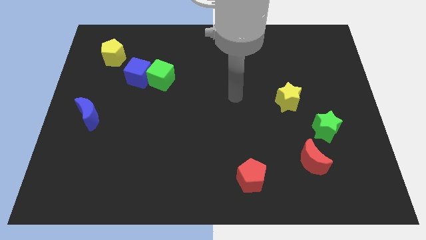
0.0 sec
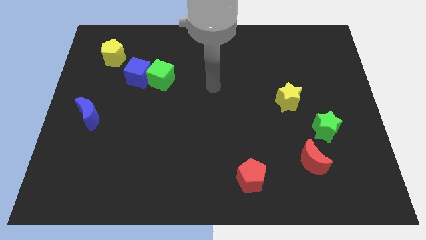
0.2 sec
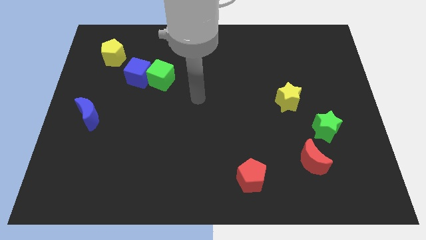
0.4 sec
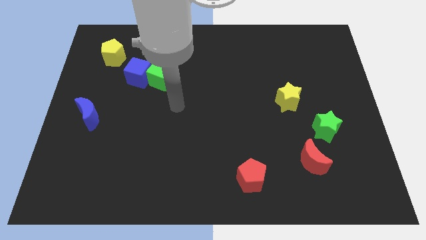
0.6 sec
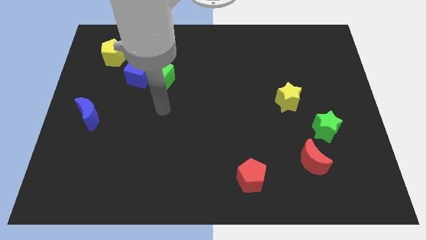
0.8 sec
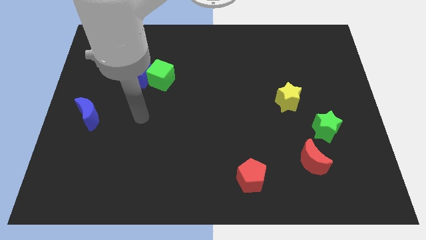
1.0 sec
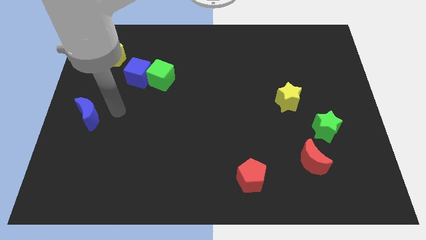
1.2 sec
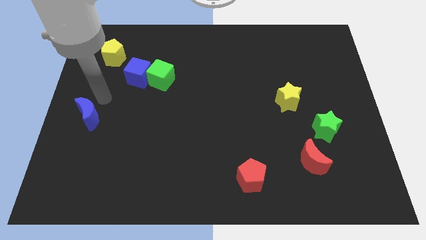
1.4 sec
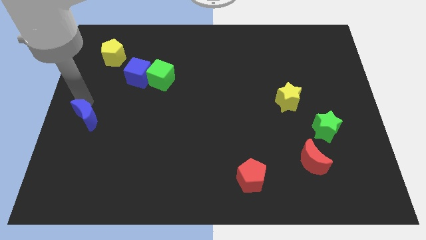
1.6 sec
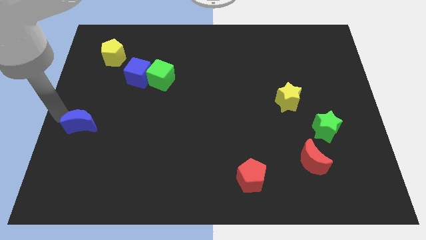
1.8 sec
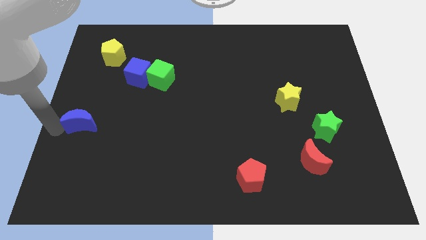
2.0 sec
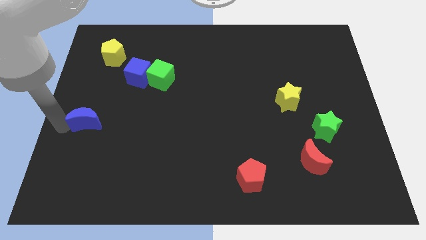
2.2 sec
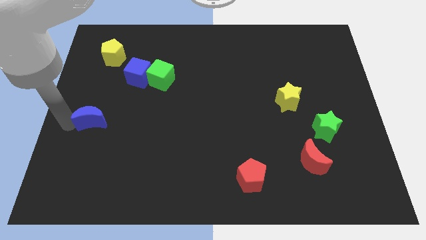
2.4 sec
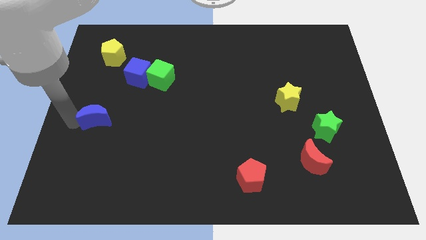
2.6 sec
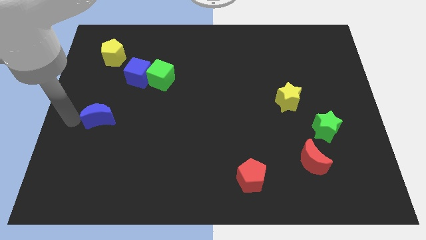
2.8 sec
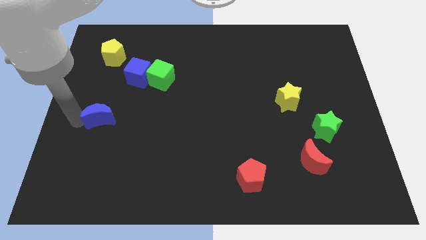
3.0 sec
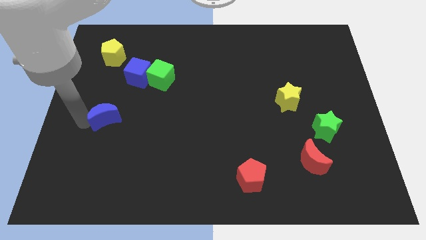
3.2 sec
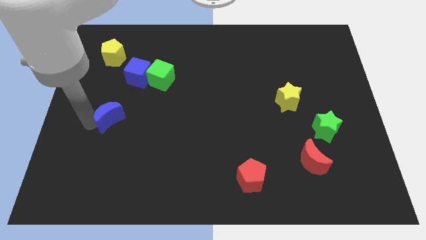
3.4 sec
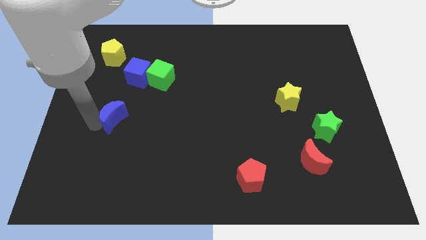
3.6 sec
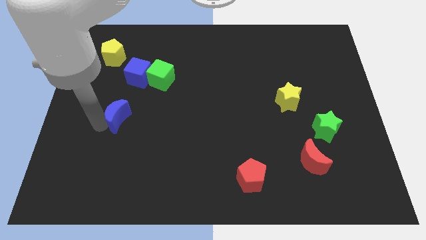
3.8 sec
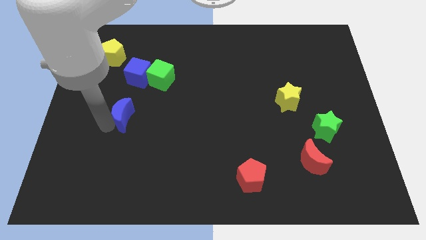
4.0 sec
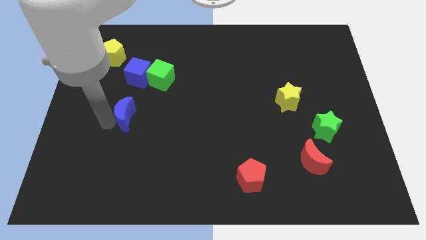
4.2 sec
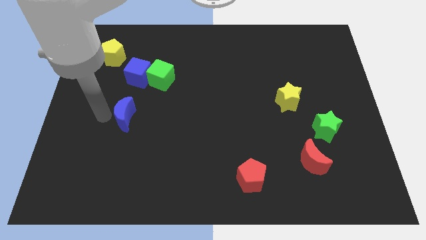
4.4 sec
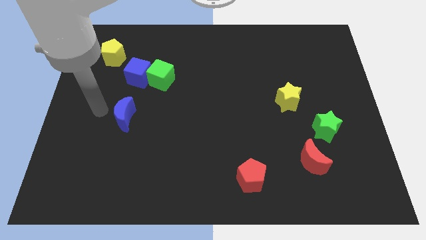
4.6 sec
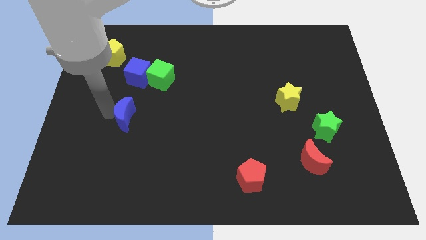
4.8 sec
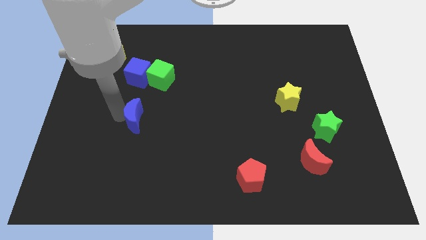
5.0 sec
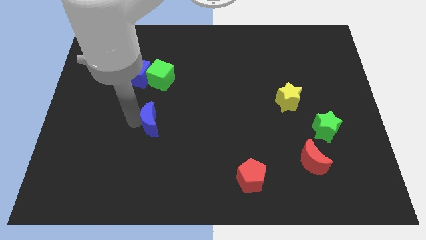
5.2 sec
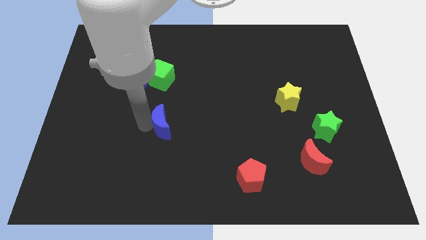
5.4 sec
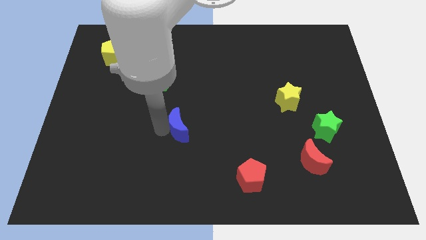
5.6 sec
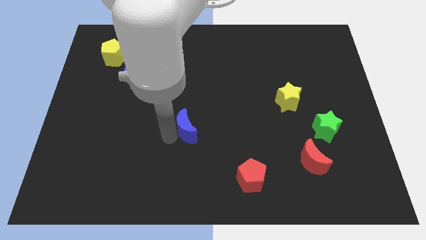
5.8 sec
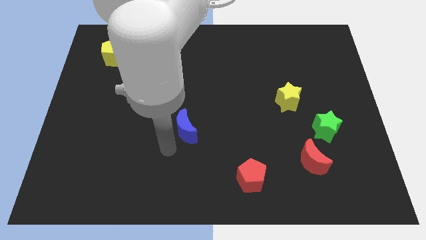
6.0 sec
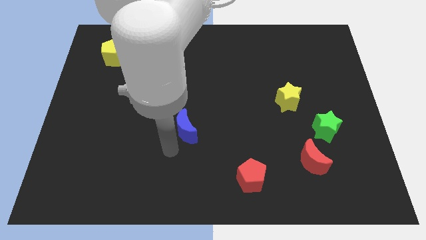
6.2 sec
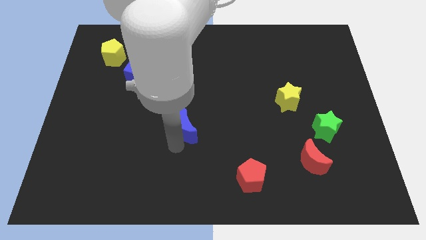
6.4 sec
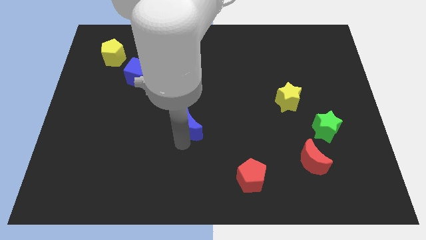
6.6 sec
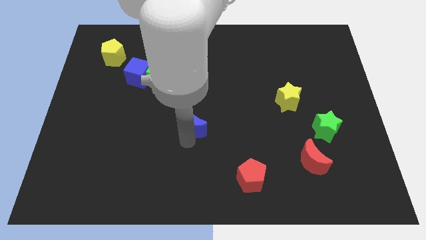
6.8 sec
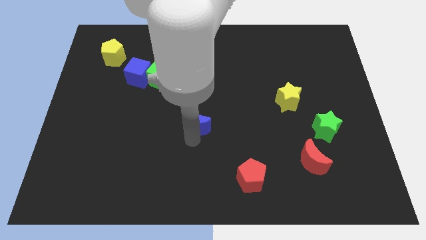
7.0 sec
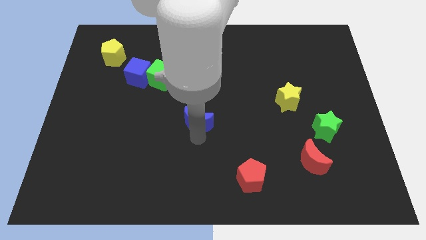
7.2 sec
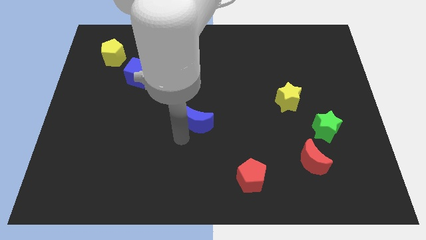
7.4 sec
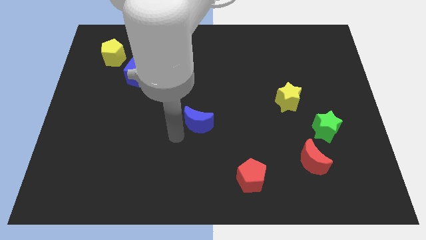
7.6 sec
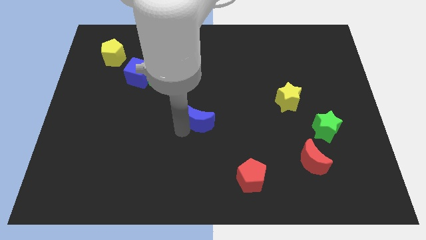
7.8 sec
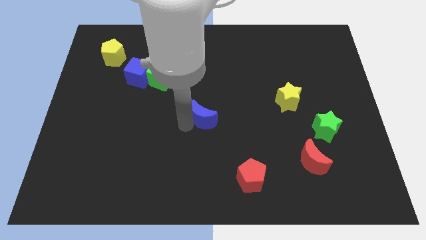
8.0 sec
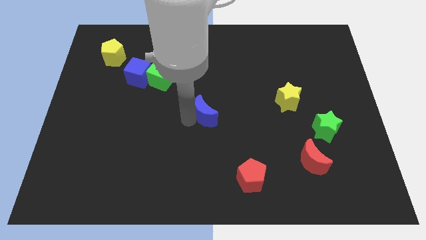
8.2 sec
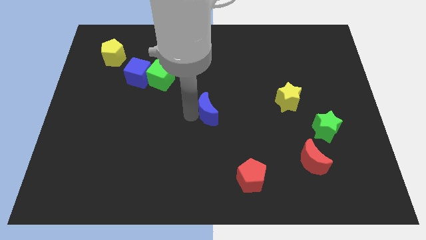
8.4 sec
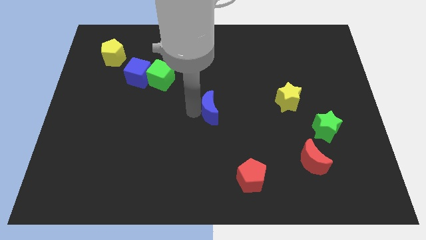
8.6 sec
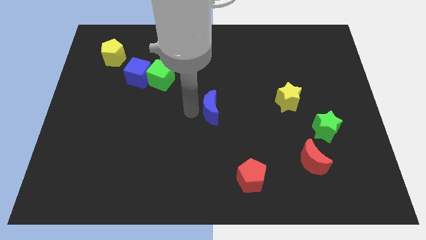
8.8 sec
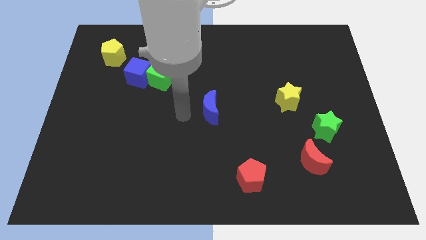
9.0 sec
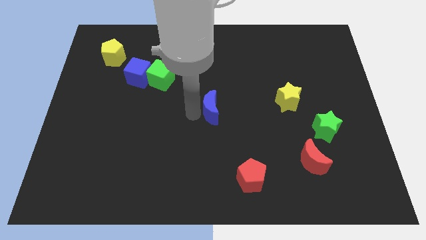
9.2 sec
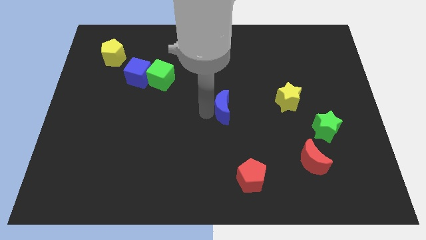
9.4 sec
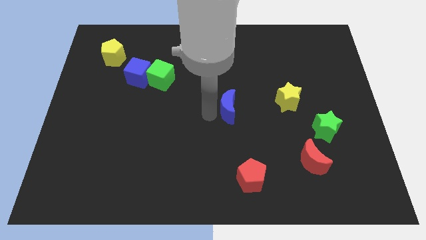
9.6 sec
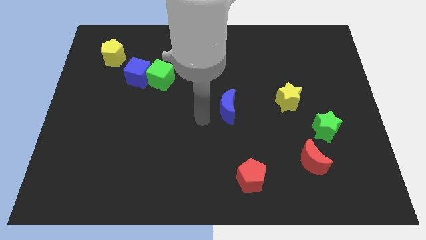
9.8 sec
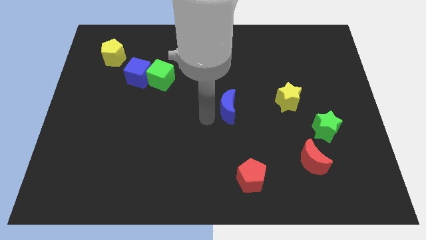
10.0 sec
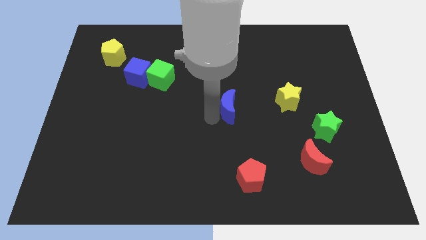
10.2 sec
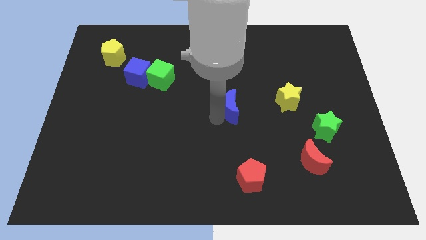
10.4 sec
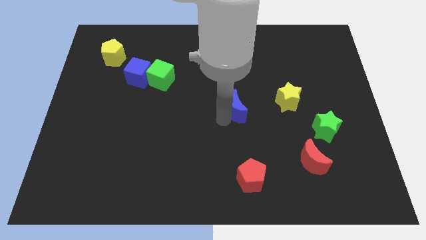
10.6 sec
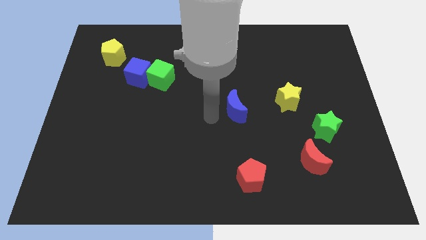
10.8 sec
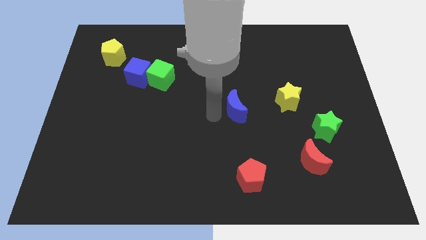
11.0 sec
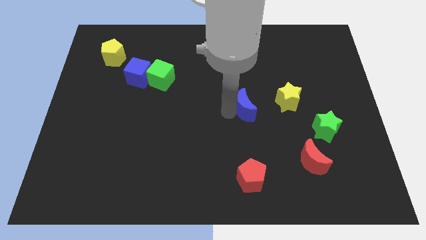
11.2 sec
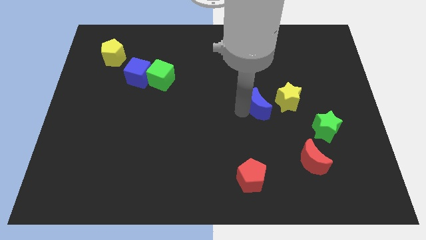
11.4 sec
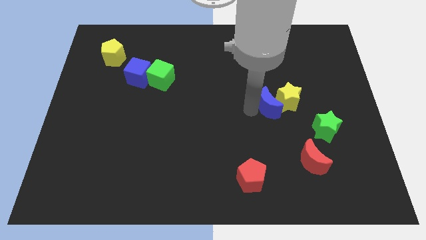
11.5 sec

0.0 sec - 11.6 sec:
move the blue moon to the yellow star

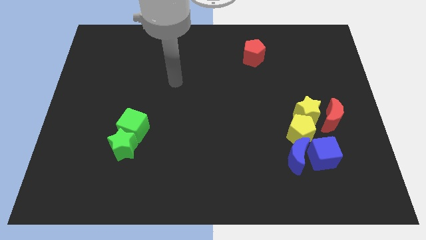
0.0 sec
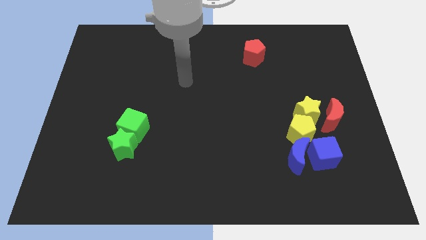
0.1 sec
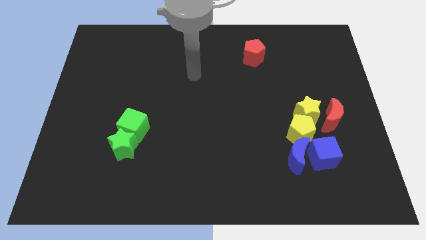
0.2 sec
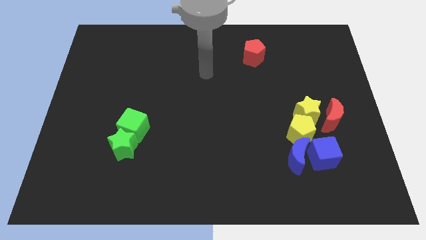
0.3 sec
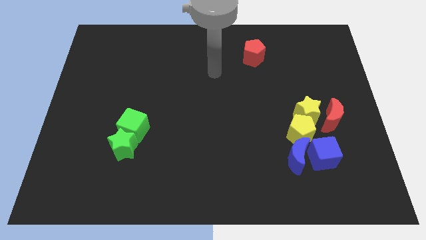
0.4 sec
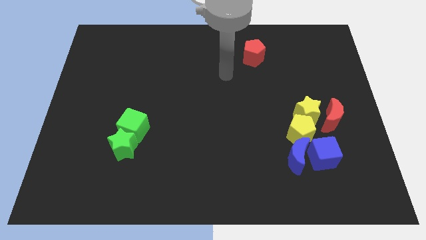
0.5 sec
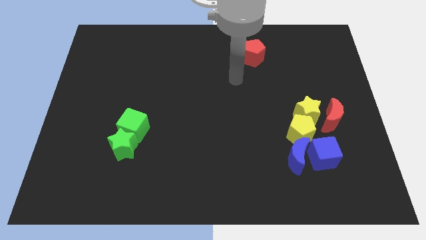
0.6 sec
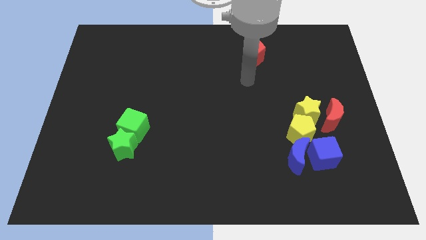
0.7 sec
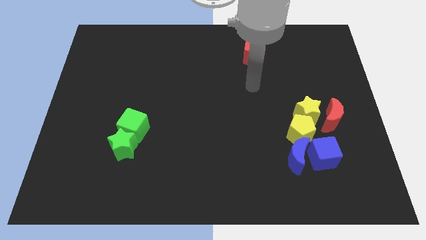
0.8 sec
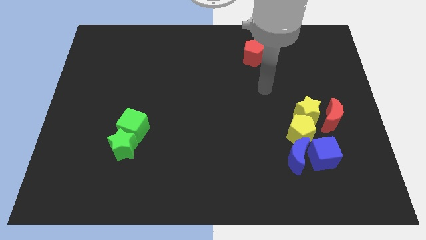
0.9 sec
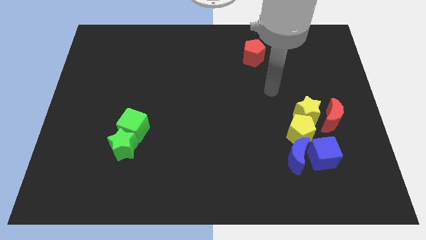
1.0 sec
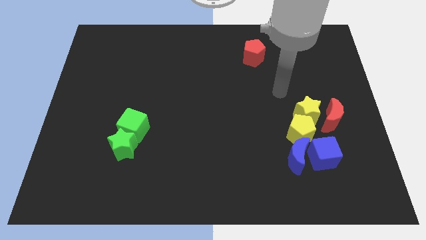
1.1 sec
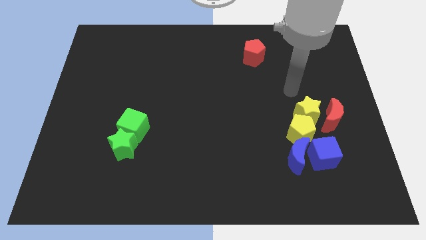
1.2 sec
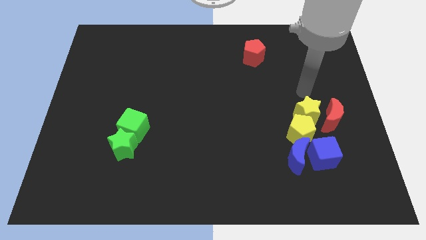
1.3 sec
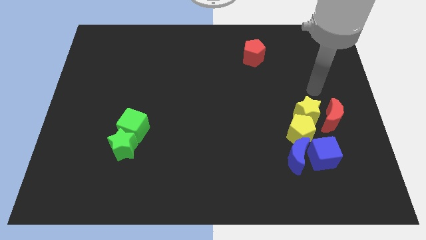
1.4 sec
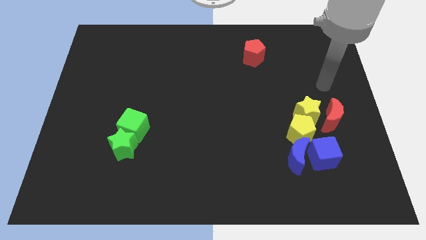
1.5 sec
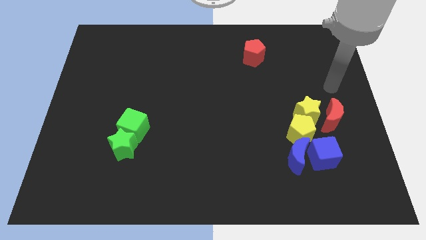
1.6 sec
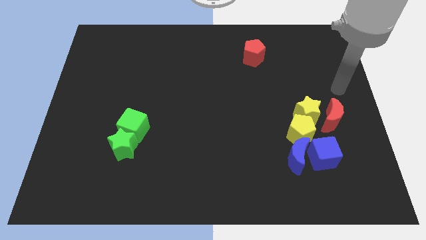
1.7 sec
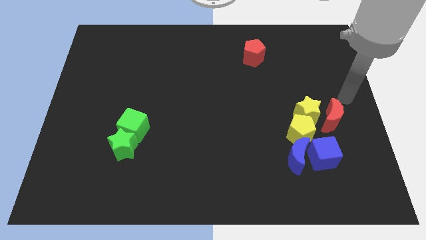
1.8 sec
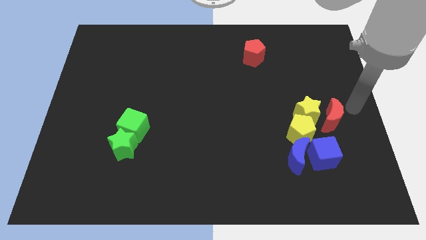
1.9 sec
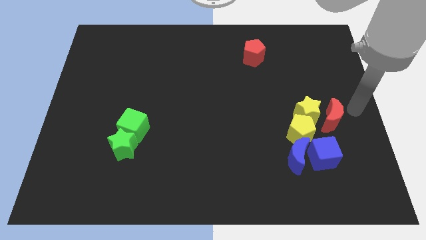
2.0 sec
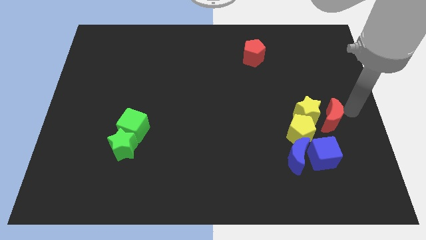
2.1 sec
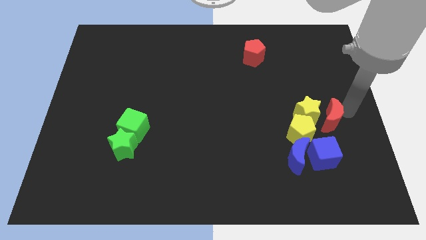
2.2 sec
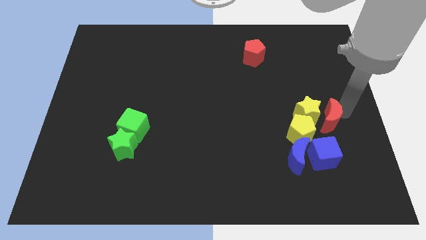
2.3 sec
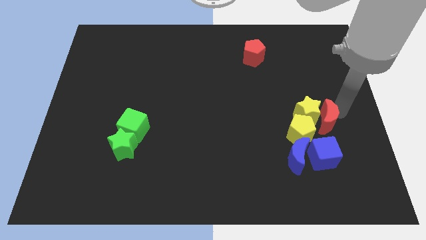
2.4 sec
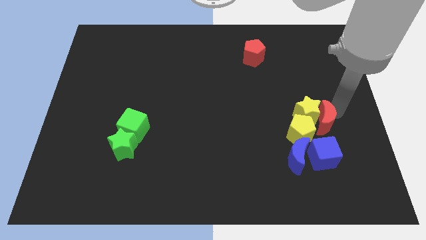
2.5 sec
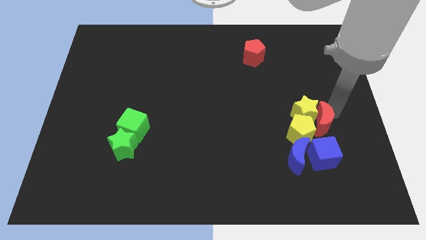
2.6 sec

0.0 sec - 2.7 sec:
push the red moon towards the yellow pentagon
